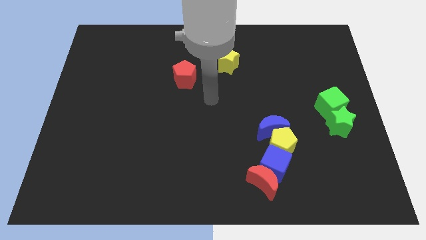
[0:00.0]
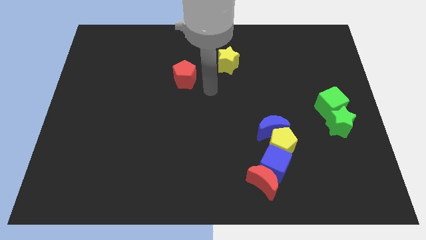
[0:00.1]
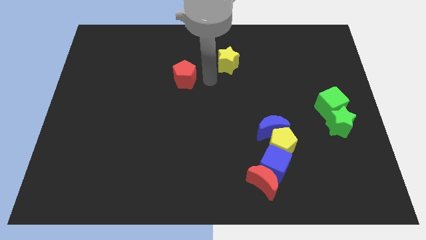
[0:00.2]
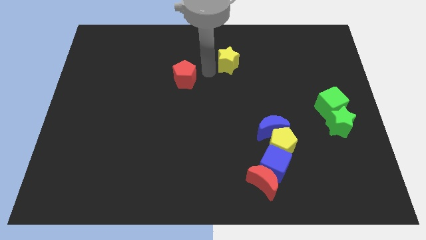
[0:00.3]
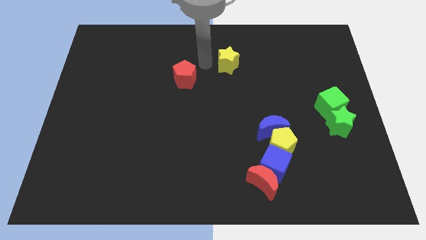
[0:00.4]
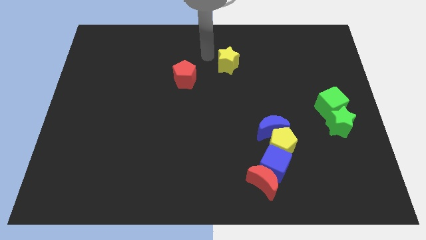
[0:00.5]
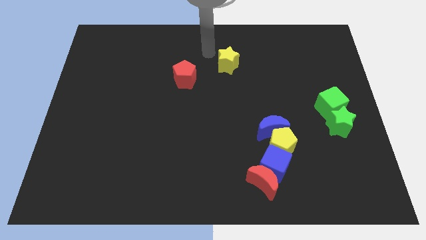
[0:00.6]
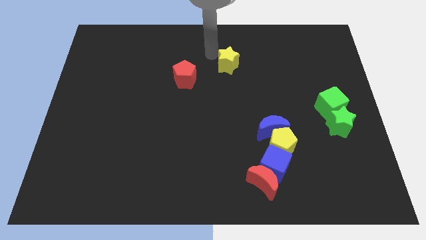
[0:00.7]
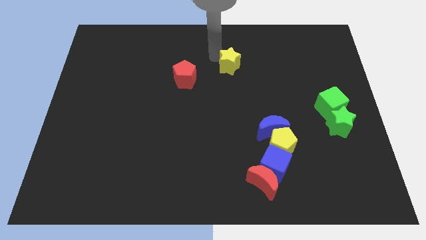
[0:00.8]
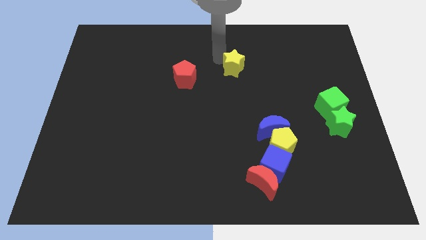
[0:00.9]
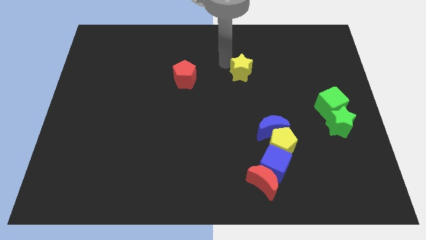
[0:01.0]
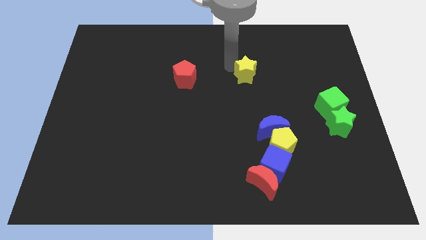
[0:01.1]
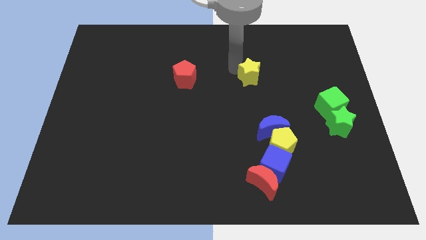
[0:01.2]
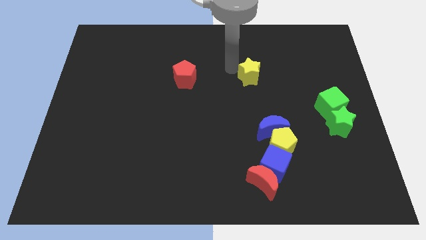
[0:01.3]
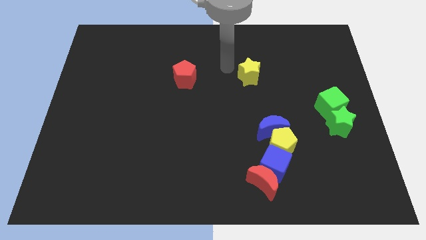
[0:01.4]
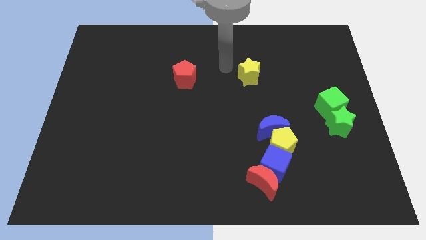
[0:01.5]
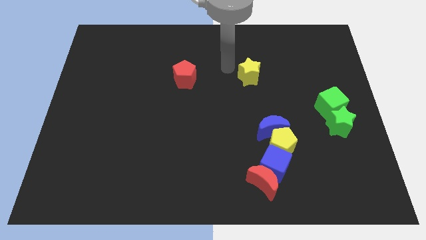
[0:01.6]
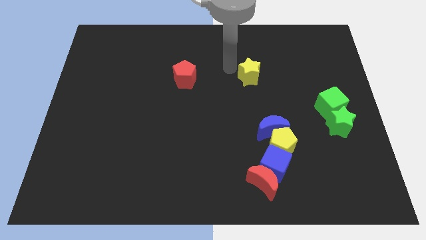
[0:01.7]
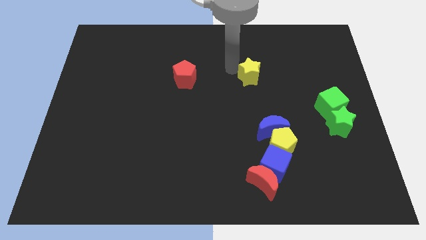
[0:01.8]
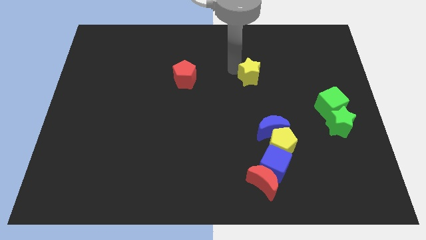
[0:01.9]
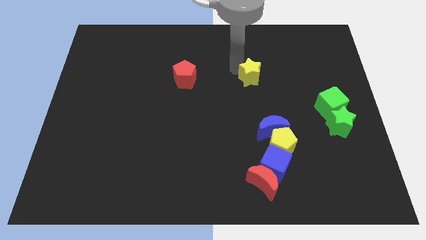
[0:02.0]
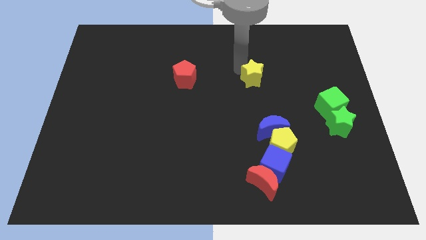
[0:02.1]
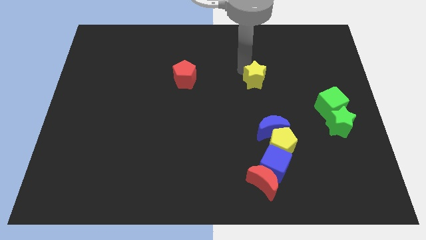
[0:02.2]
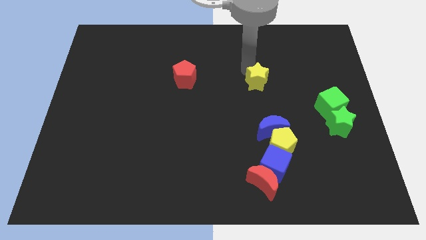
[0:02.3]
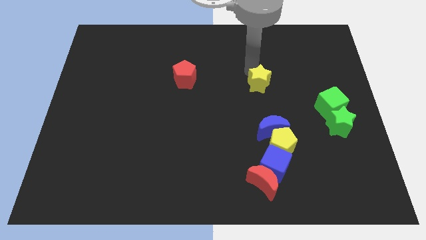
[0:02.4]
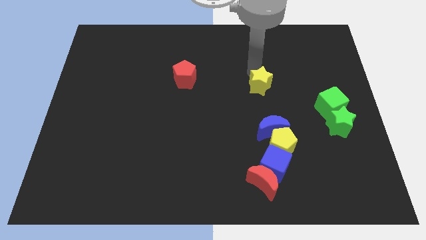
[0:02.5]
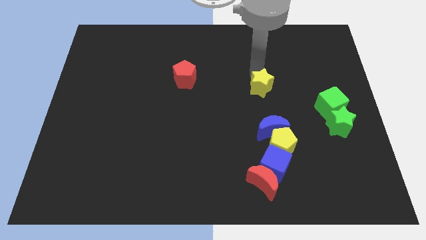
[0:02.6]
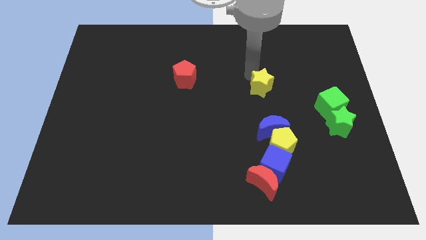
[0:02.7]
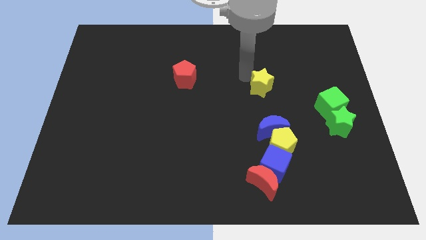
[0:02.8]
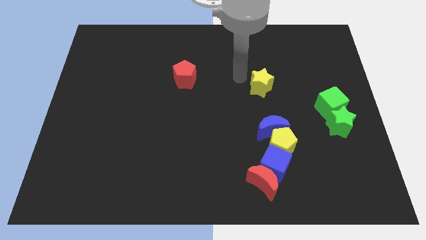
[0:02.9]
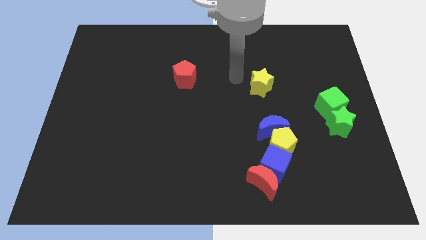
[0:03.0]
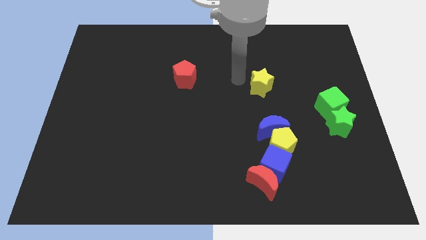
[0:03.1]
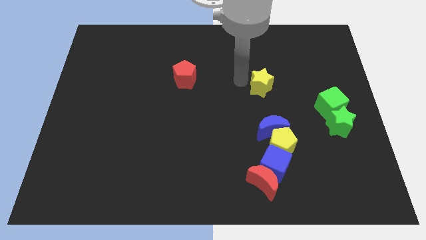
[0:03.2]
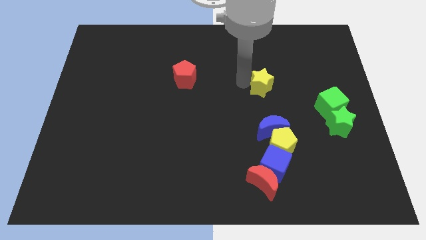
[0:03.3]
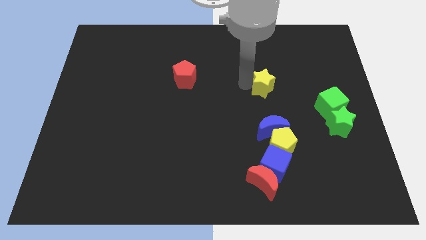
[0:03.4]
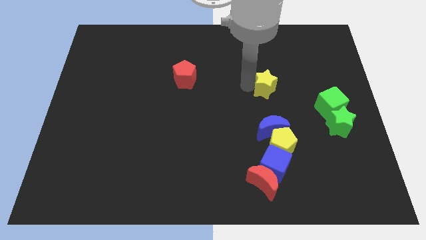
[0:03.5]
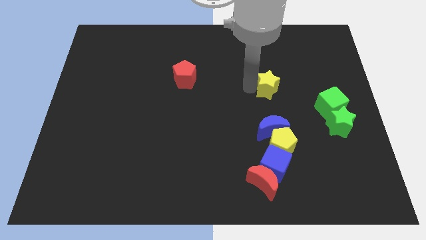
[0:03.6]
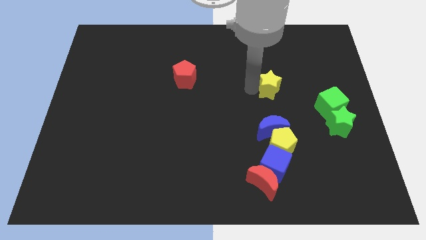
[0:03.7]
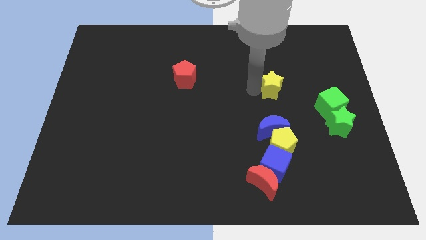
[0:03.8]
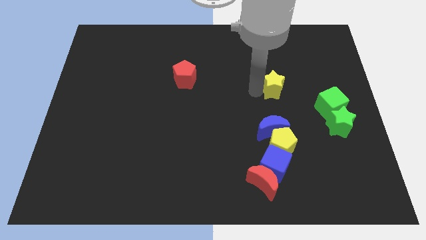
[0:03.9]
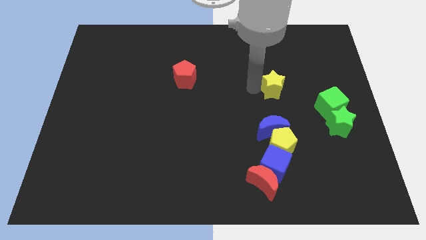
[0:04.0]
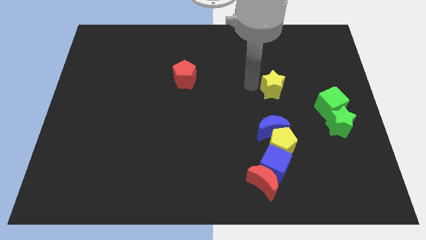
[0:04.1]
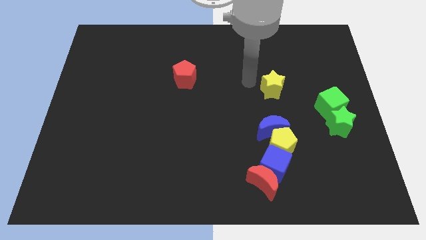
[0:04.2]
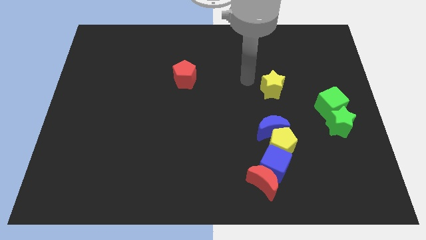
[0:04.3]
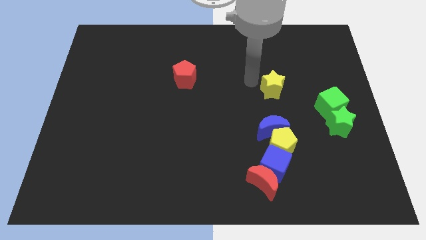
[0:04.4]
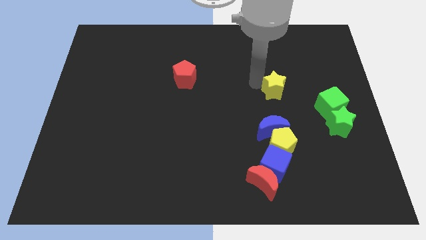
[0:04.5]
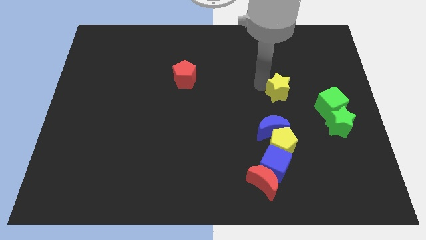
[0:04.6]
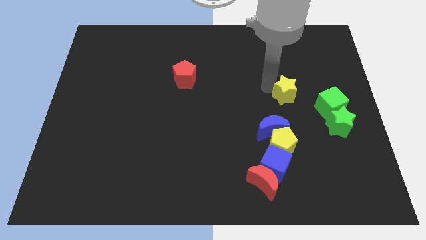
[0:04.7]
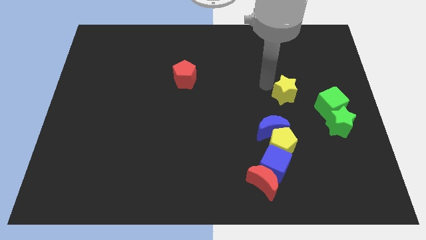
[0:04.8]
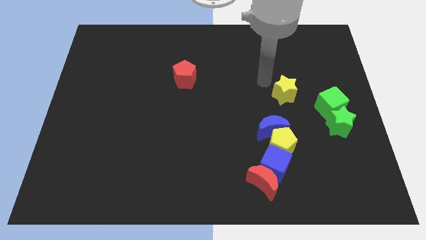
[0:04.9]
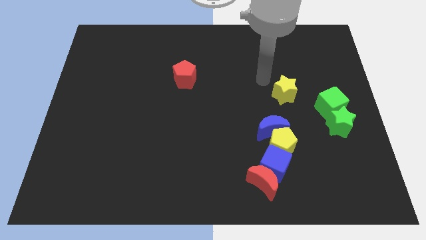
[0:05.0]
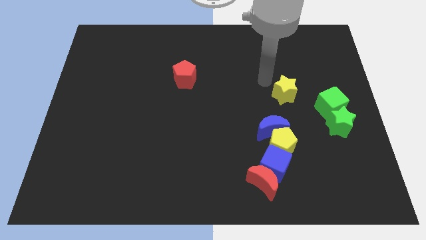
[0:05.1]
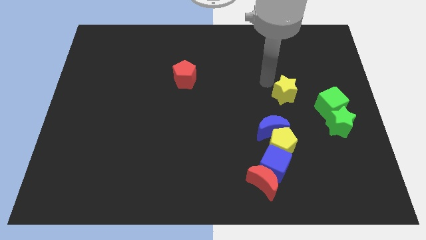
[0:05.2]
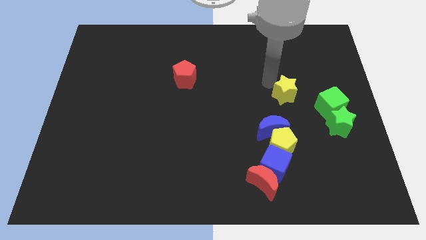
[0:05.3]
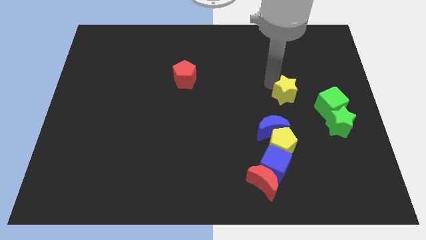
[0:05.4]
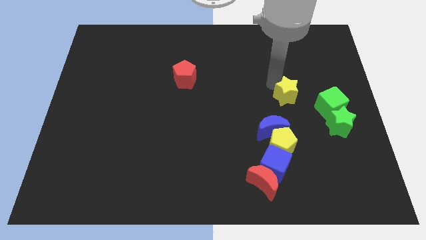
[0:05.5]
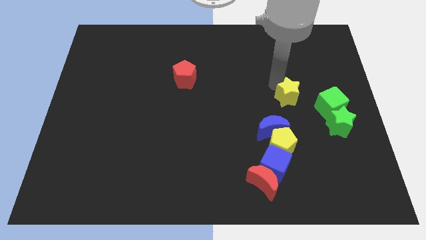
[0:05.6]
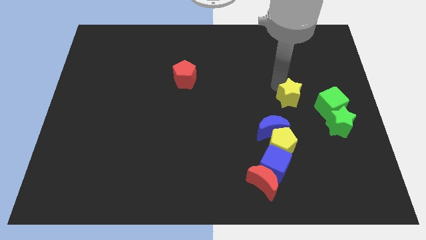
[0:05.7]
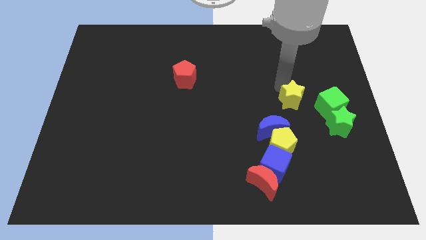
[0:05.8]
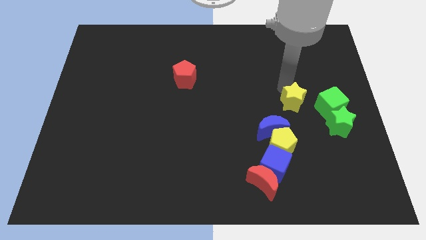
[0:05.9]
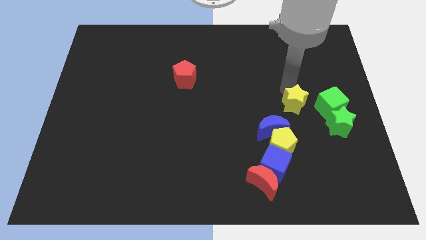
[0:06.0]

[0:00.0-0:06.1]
move the yellow star down and then to the right

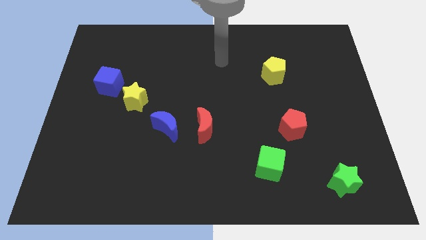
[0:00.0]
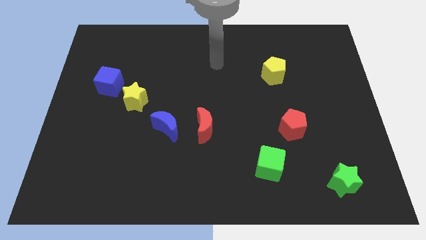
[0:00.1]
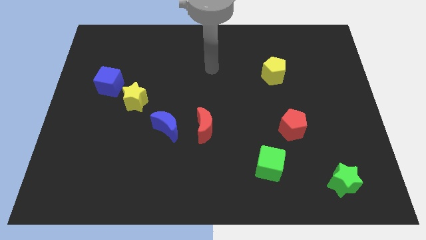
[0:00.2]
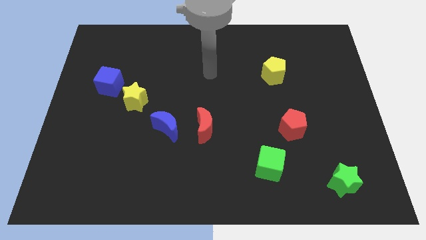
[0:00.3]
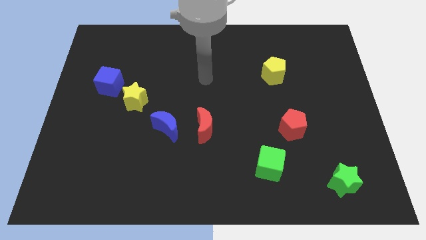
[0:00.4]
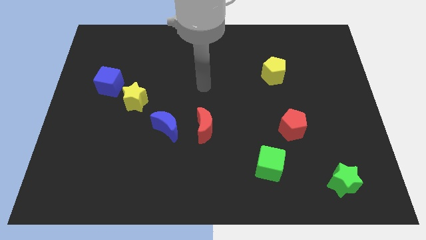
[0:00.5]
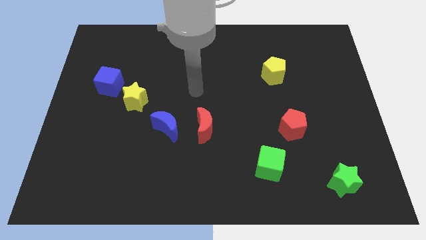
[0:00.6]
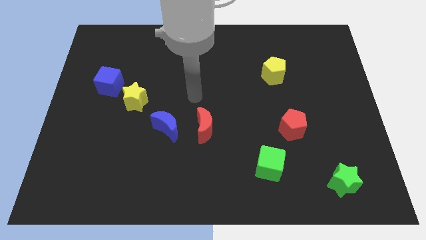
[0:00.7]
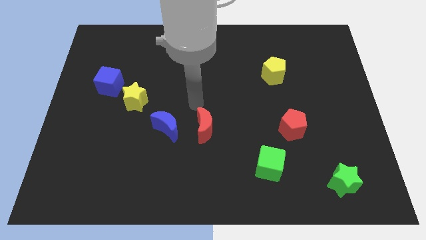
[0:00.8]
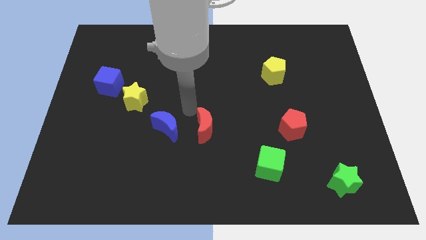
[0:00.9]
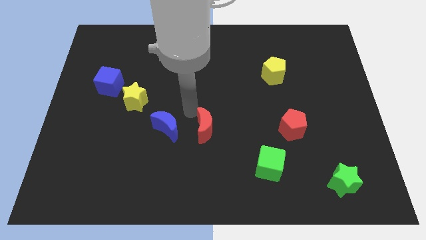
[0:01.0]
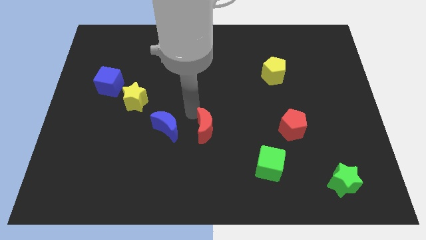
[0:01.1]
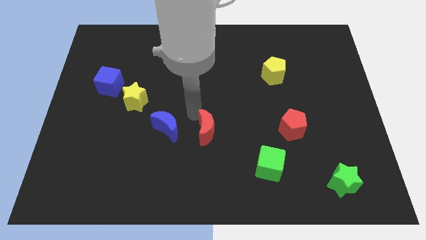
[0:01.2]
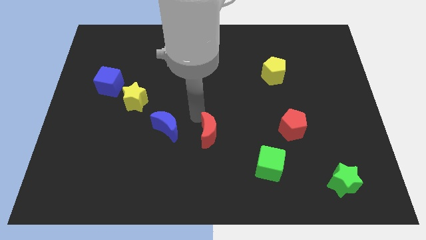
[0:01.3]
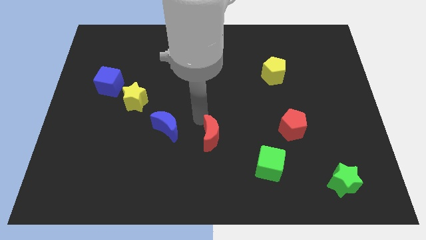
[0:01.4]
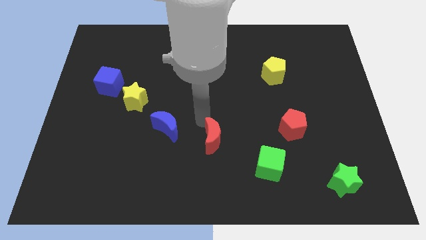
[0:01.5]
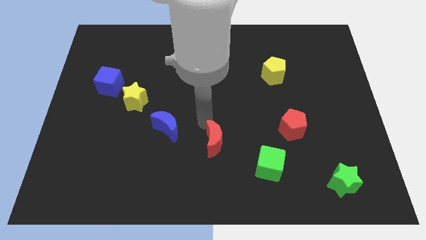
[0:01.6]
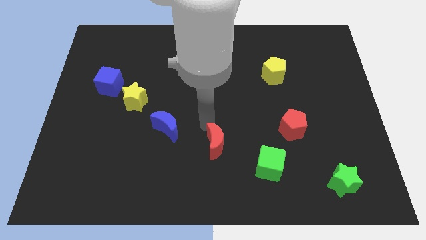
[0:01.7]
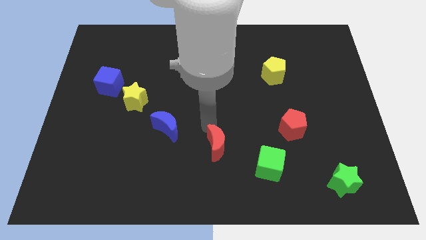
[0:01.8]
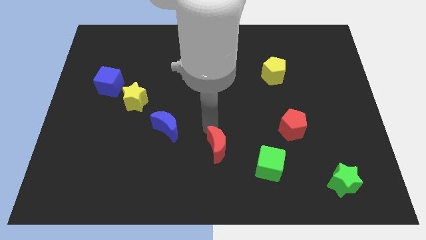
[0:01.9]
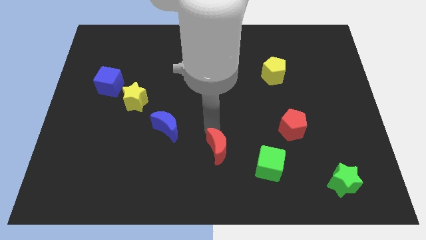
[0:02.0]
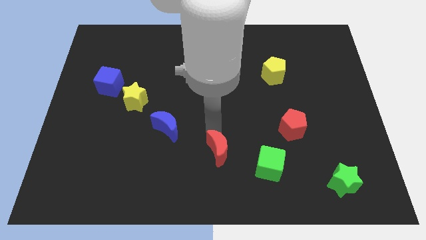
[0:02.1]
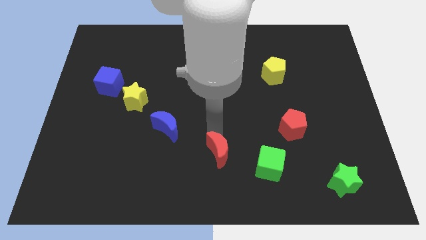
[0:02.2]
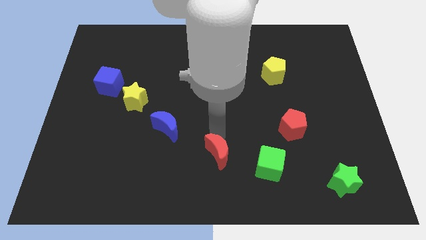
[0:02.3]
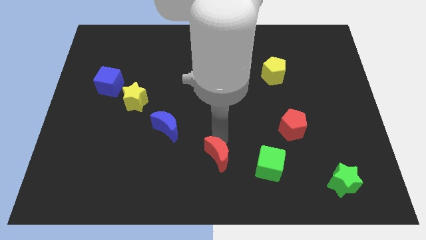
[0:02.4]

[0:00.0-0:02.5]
slide the red moon diagonally down and to the right a little
